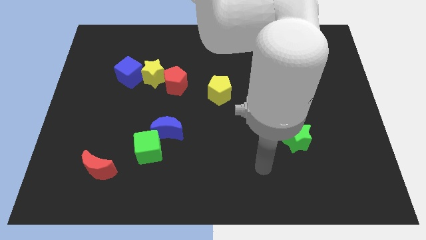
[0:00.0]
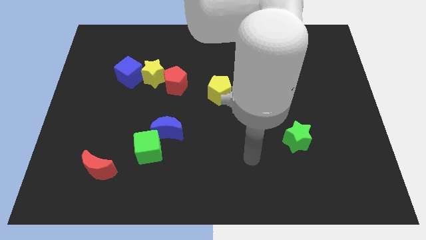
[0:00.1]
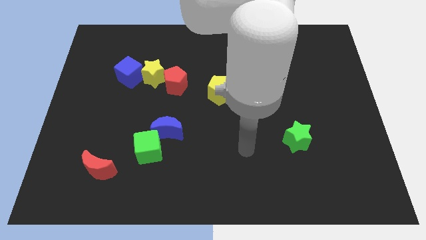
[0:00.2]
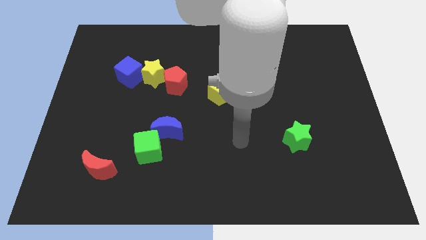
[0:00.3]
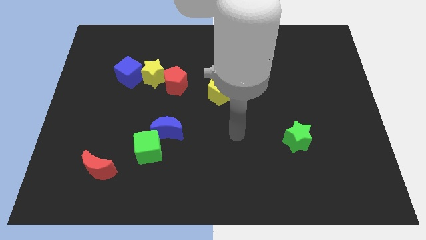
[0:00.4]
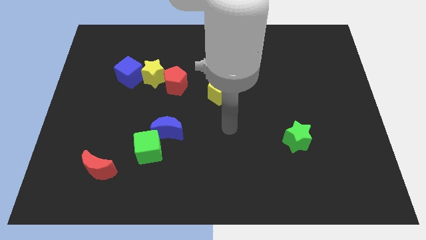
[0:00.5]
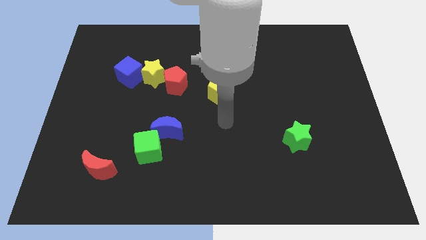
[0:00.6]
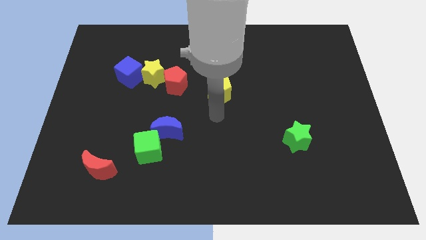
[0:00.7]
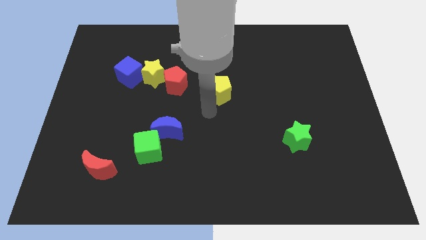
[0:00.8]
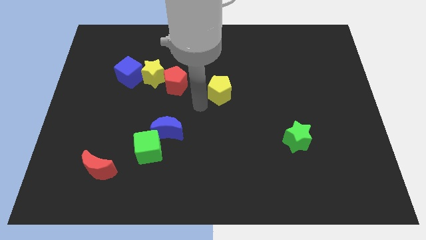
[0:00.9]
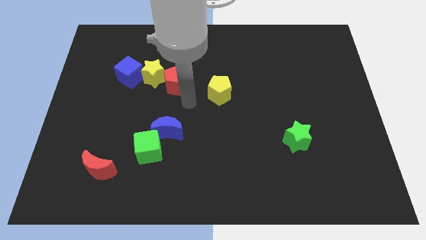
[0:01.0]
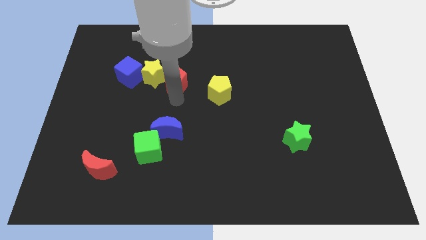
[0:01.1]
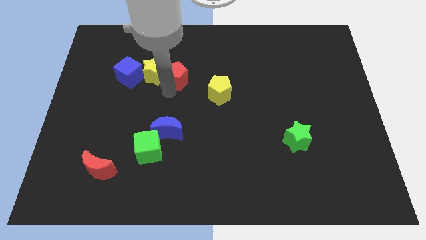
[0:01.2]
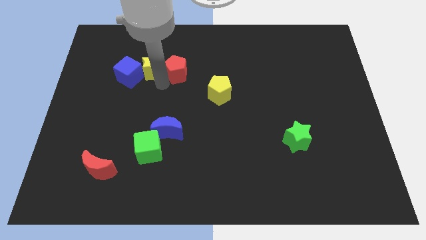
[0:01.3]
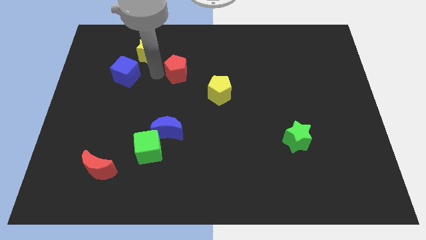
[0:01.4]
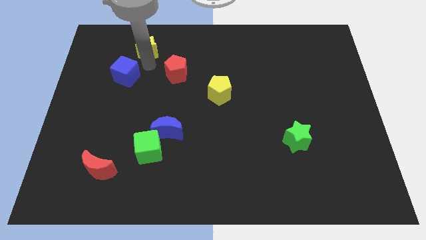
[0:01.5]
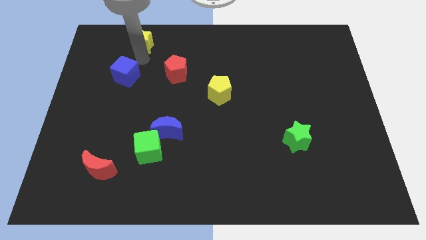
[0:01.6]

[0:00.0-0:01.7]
move the blue cube away from the yellow star

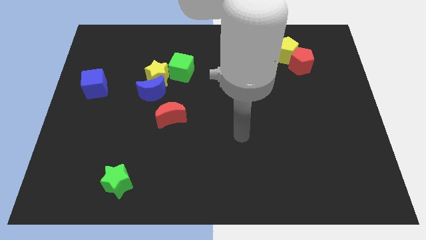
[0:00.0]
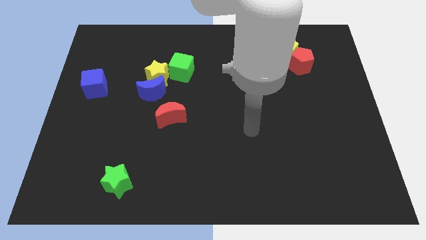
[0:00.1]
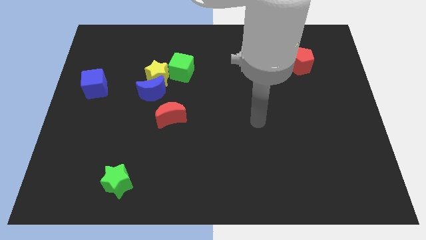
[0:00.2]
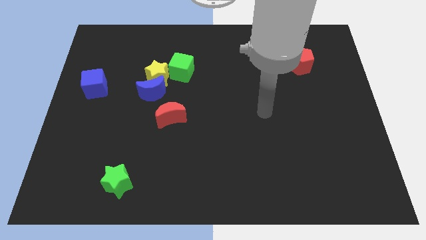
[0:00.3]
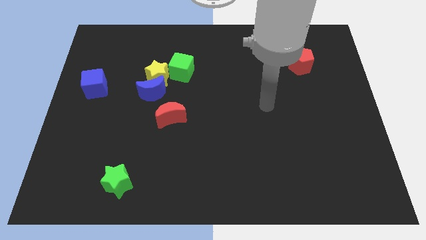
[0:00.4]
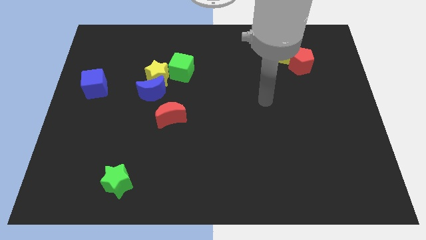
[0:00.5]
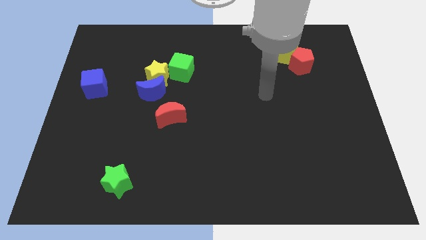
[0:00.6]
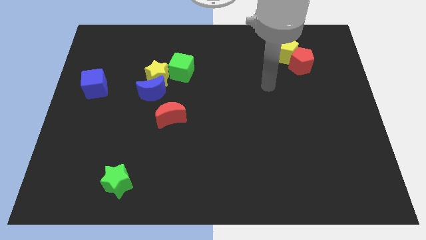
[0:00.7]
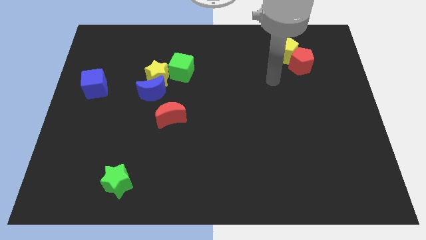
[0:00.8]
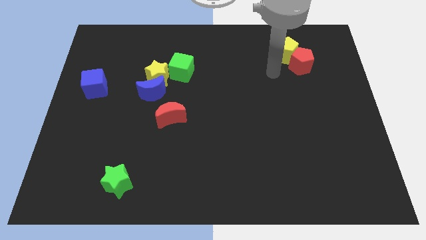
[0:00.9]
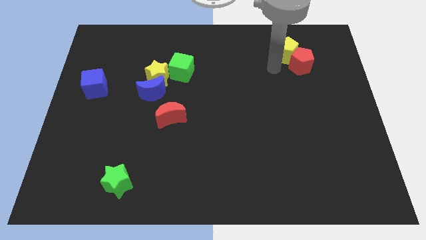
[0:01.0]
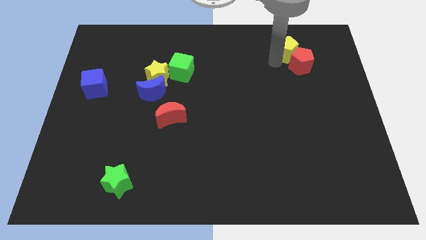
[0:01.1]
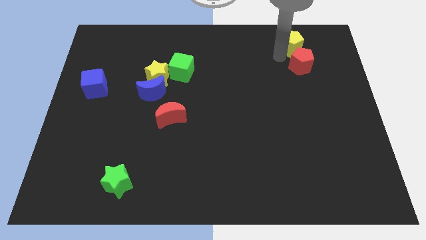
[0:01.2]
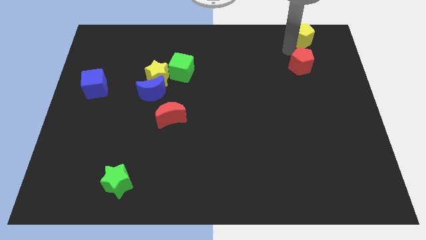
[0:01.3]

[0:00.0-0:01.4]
pull the red pentagon apart from the yellow pentagon

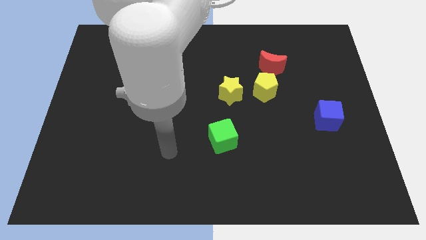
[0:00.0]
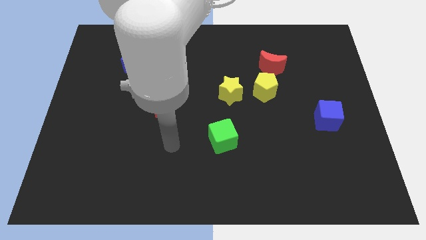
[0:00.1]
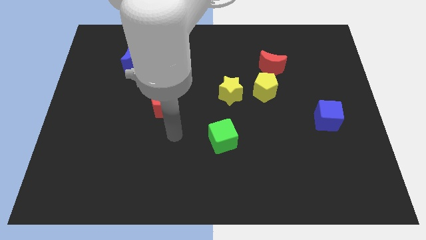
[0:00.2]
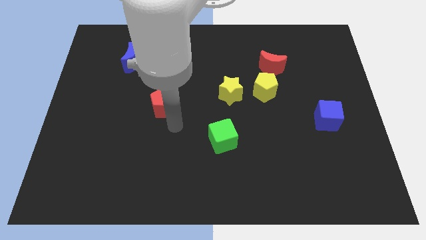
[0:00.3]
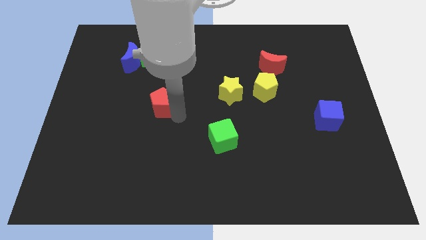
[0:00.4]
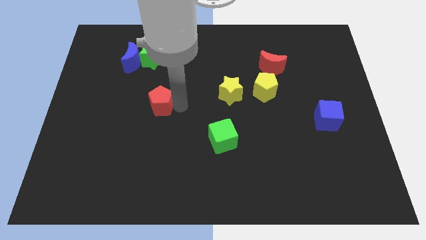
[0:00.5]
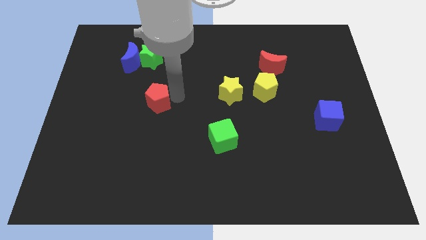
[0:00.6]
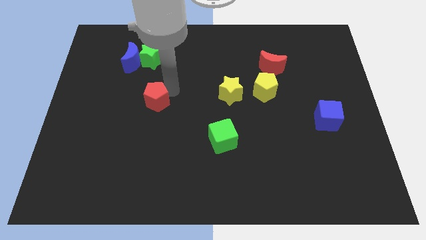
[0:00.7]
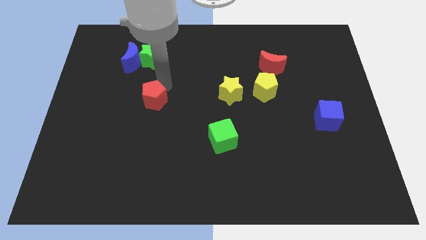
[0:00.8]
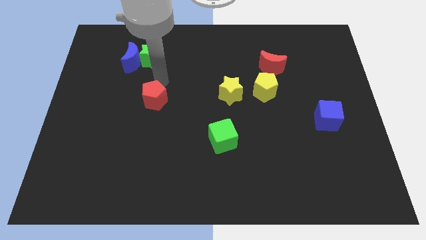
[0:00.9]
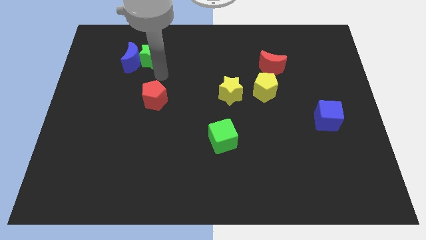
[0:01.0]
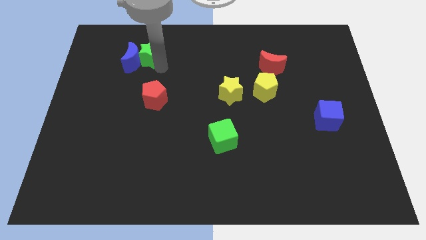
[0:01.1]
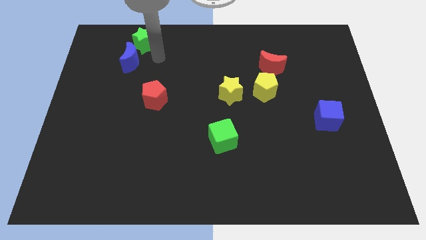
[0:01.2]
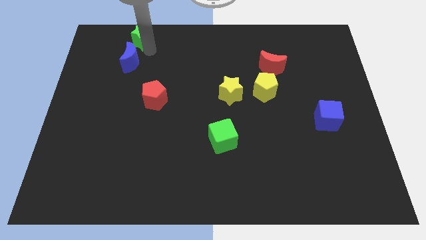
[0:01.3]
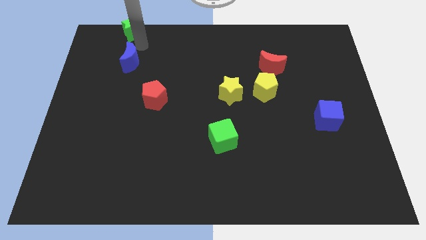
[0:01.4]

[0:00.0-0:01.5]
move the blue moon away from the green star

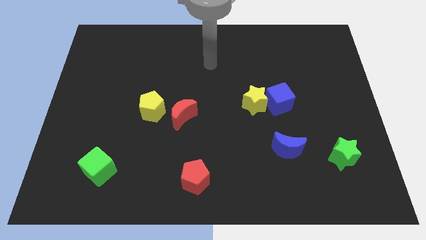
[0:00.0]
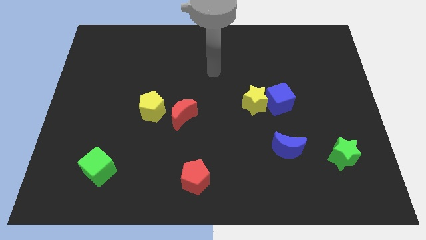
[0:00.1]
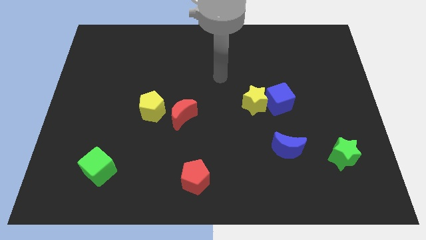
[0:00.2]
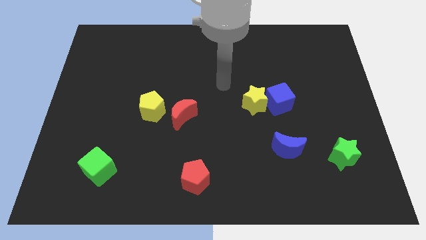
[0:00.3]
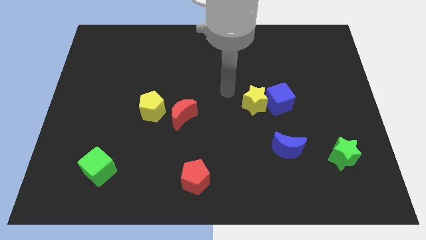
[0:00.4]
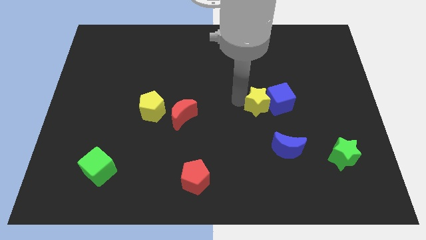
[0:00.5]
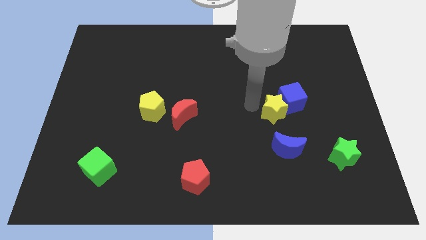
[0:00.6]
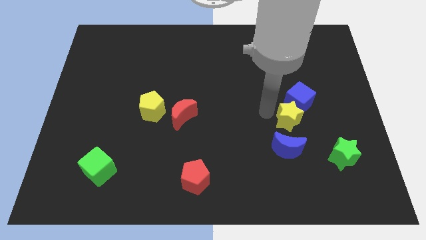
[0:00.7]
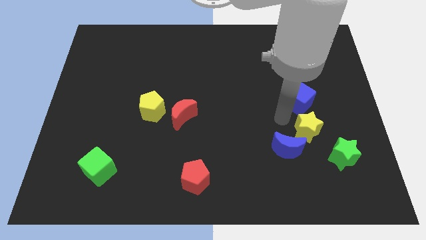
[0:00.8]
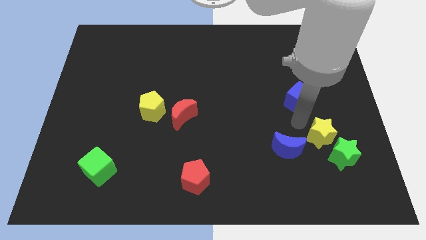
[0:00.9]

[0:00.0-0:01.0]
separate the blue cube from the yellow star

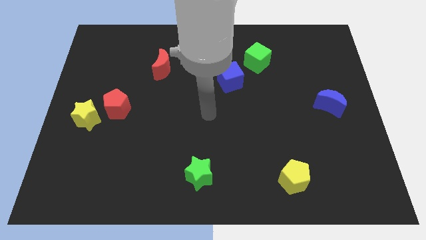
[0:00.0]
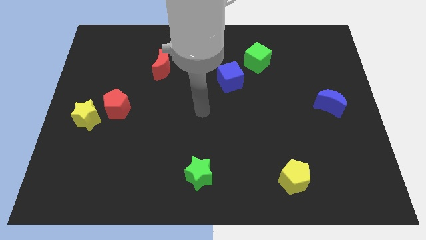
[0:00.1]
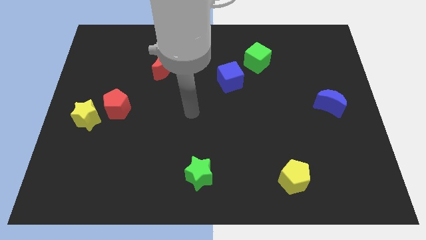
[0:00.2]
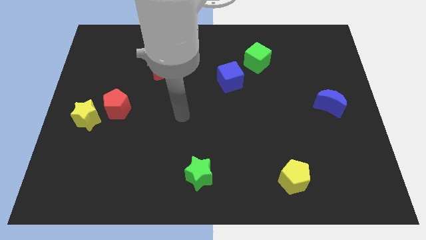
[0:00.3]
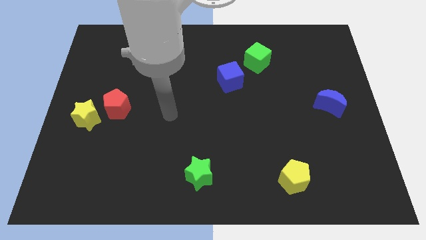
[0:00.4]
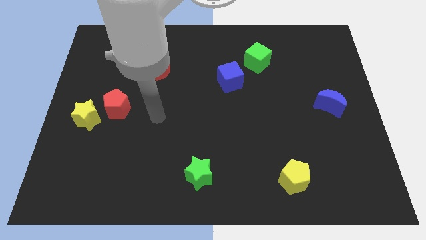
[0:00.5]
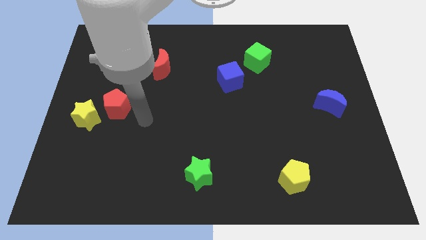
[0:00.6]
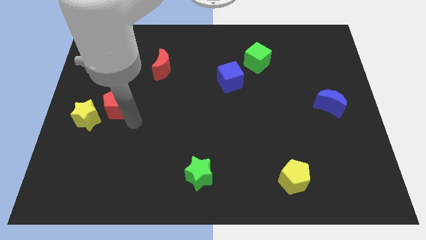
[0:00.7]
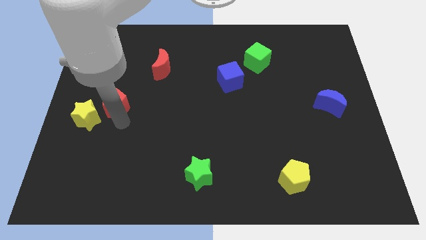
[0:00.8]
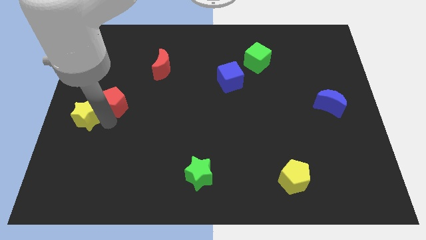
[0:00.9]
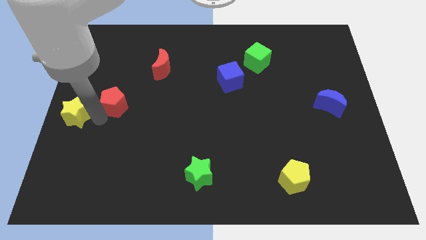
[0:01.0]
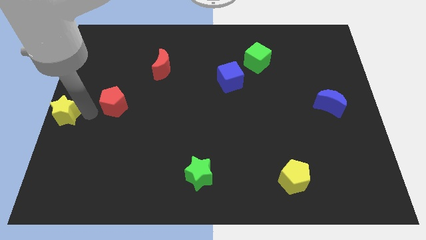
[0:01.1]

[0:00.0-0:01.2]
move the red pentagon away from the yellow star

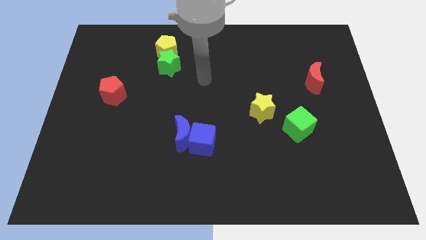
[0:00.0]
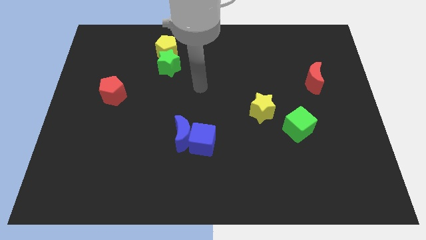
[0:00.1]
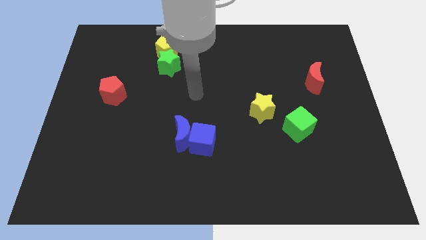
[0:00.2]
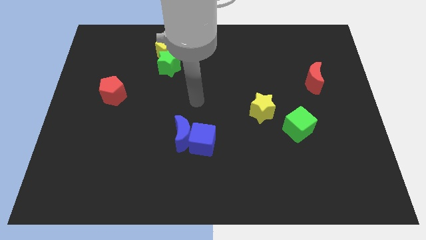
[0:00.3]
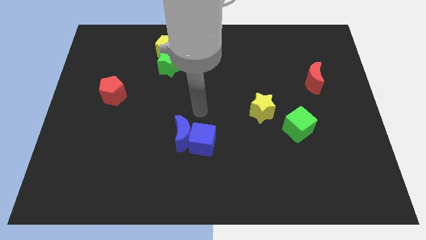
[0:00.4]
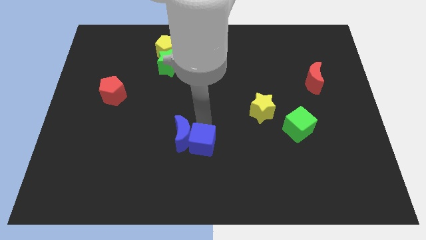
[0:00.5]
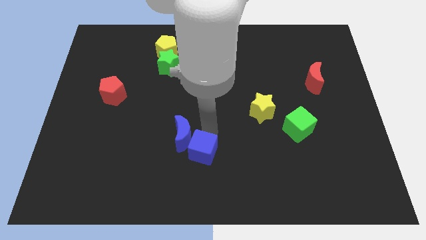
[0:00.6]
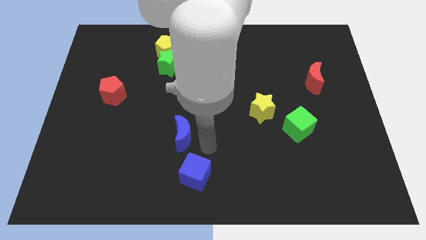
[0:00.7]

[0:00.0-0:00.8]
pull the blue moon apart from the blue cube

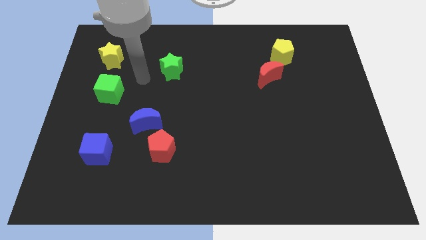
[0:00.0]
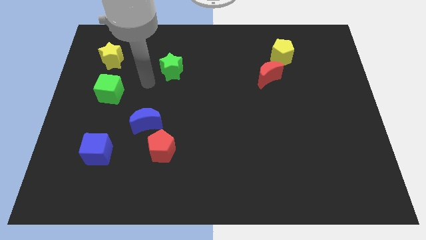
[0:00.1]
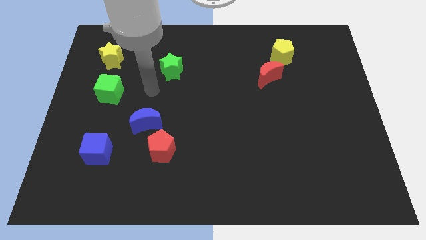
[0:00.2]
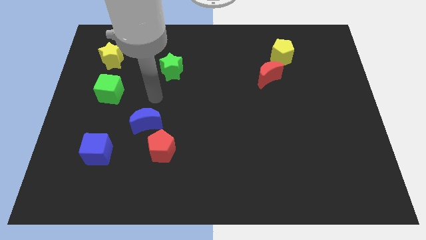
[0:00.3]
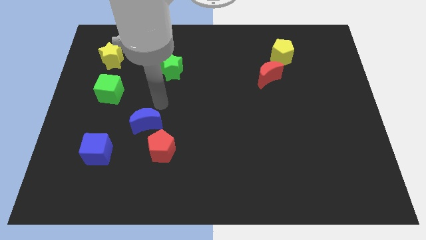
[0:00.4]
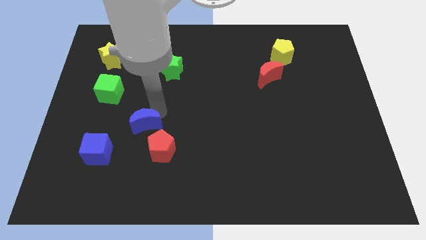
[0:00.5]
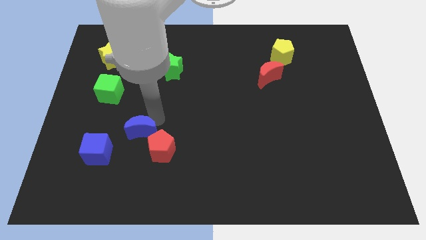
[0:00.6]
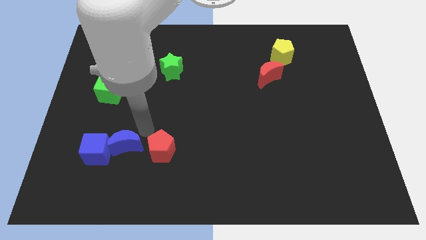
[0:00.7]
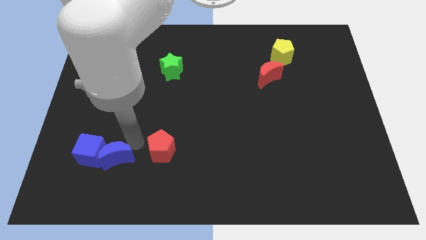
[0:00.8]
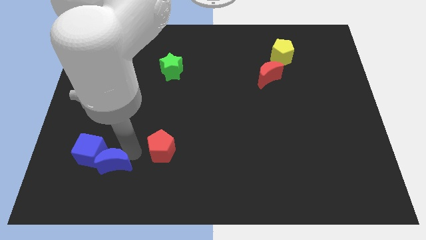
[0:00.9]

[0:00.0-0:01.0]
pull the red pentagon apart from the blue moon

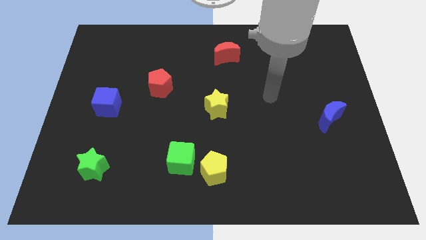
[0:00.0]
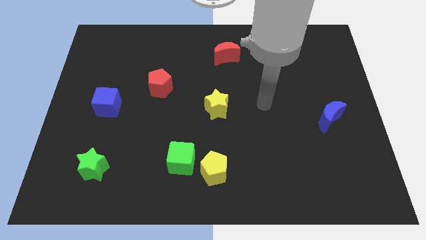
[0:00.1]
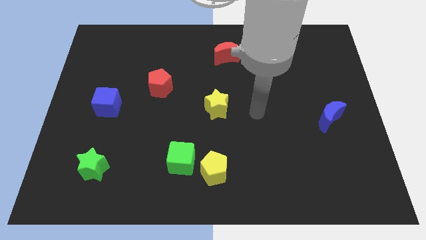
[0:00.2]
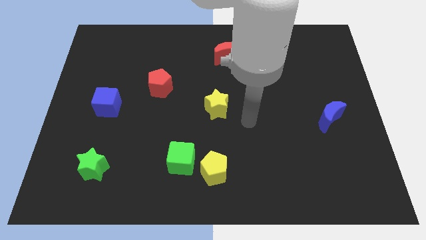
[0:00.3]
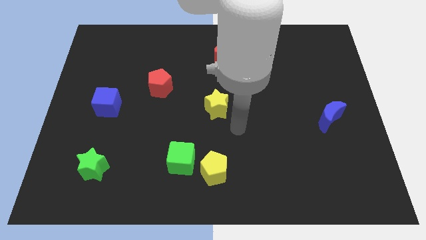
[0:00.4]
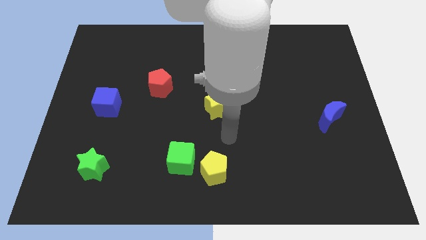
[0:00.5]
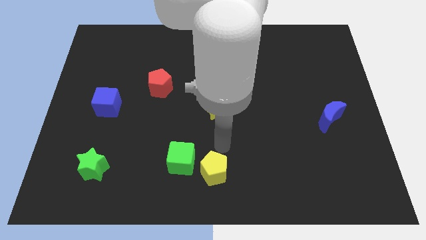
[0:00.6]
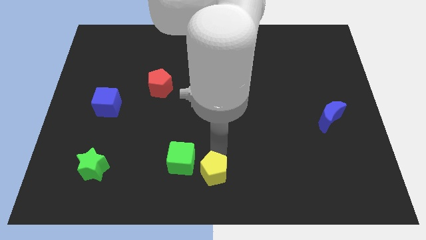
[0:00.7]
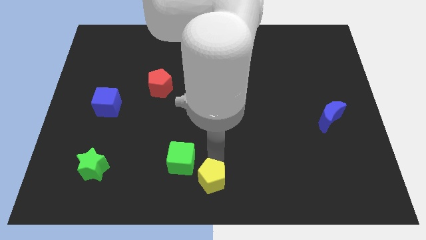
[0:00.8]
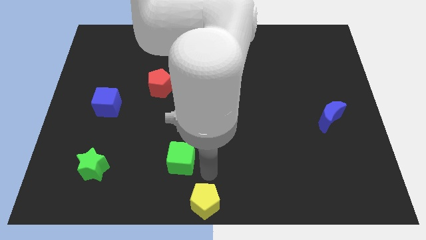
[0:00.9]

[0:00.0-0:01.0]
separate the green cube from the yellow pentagon
